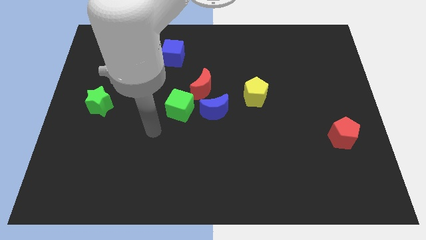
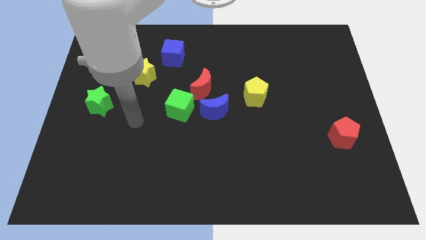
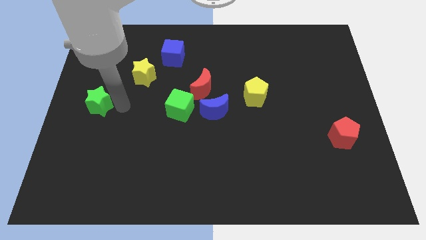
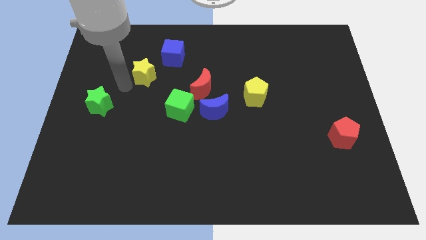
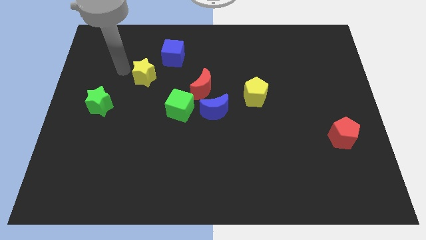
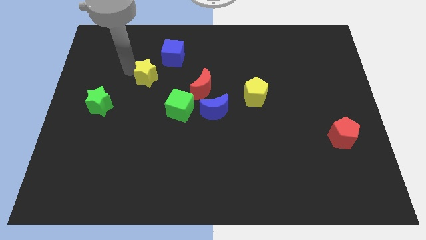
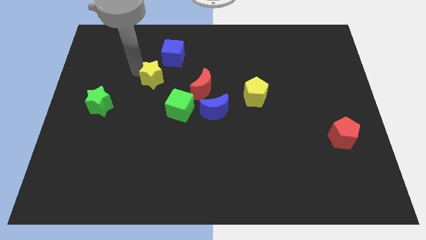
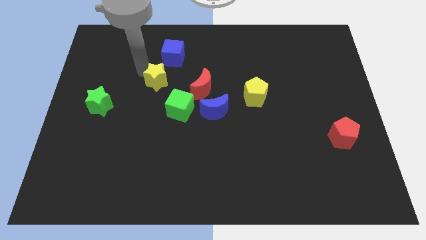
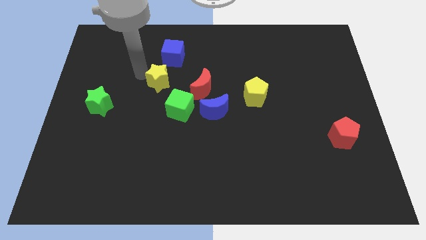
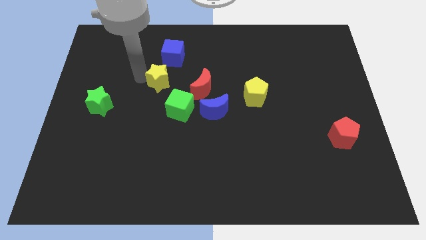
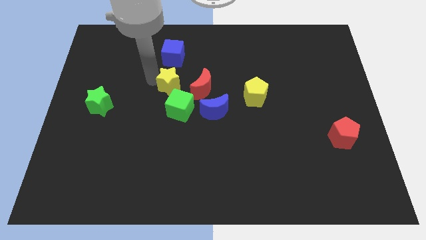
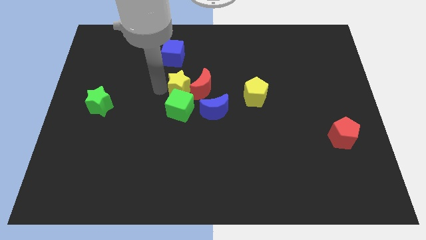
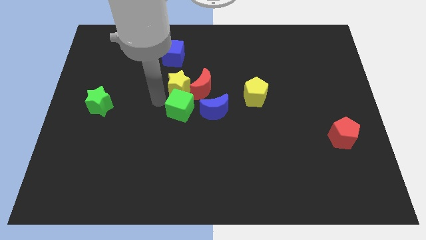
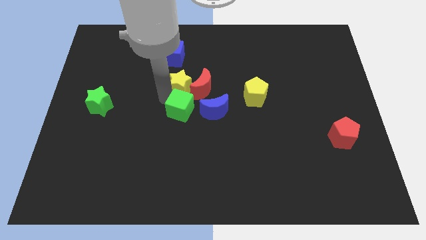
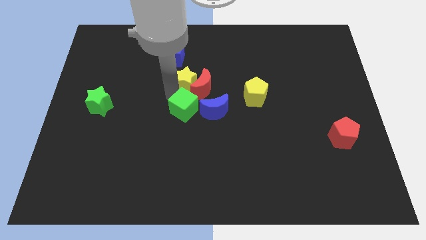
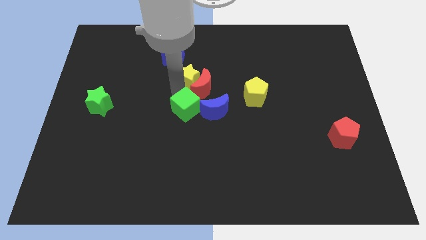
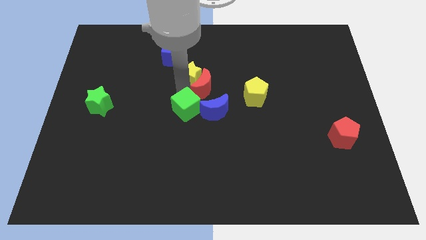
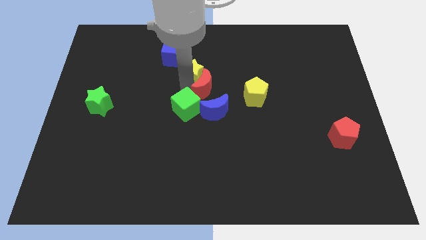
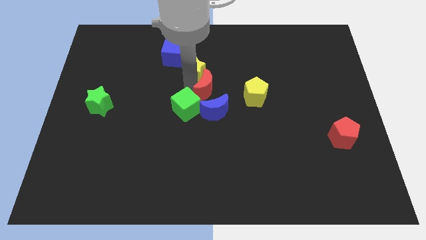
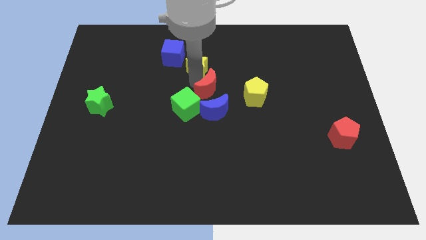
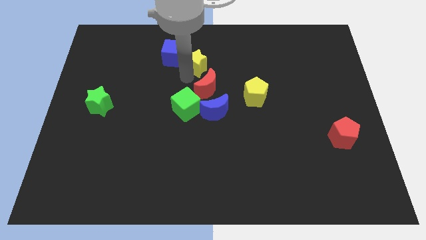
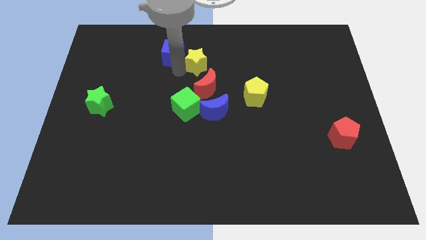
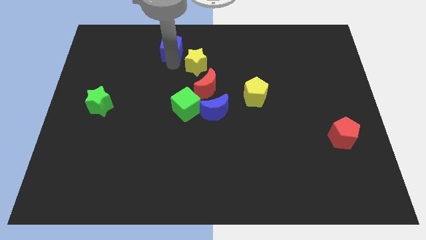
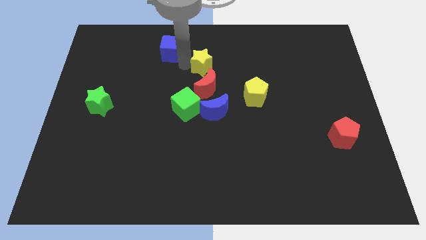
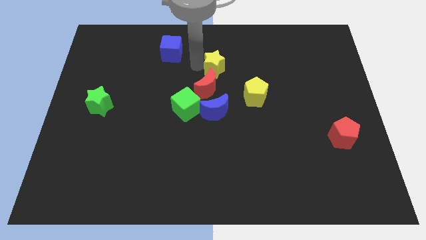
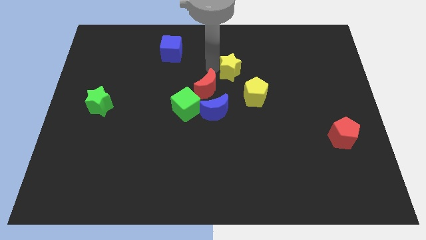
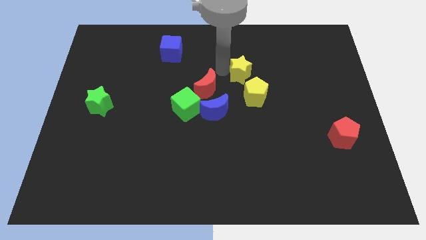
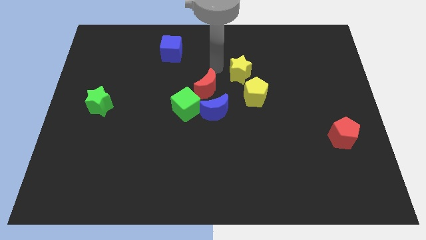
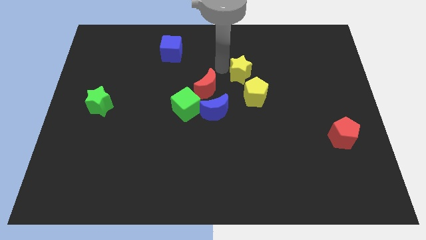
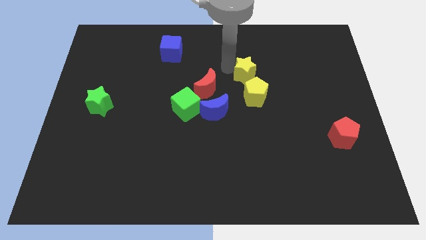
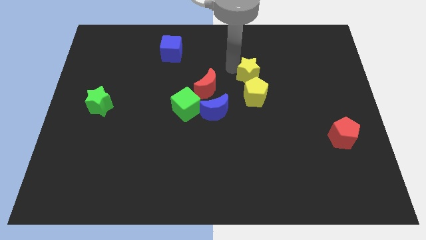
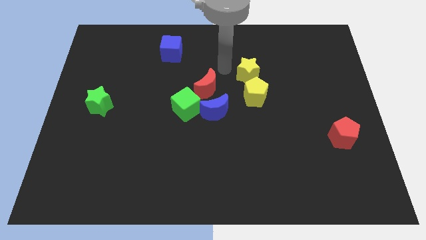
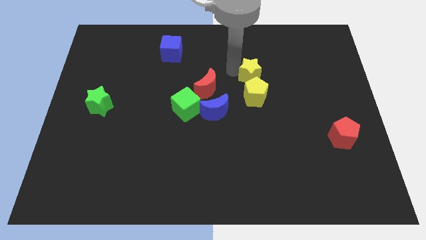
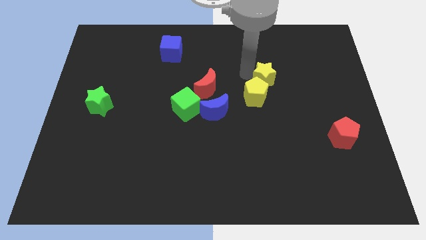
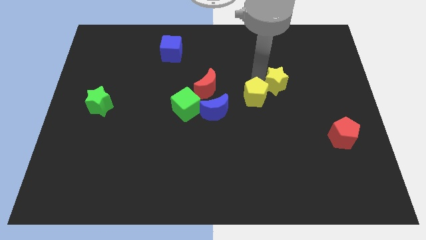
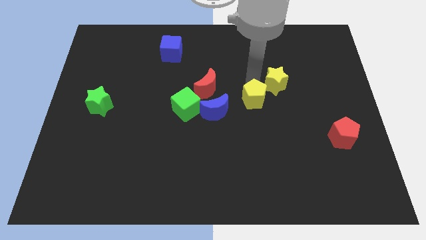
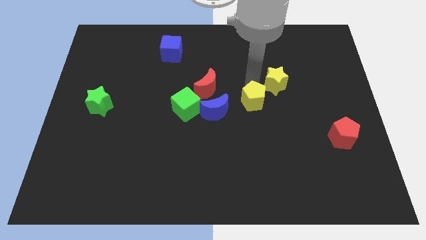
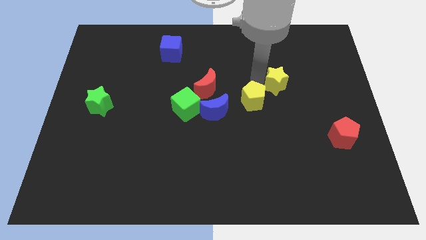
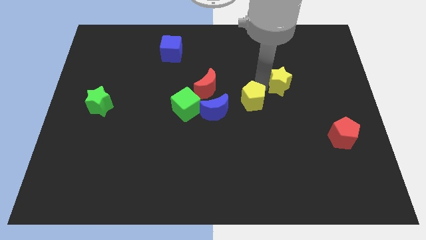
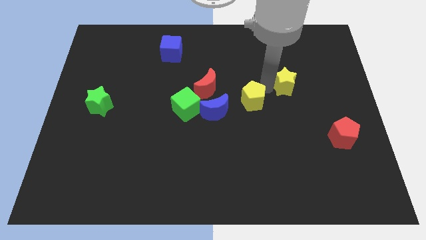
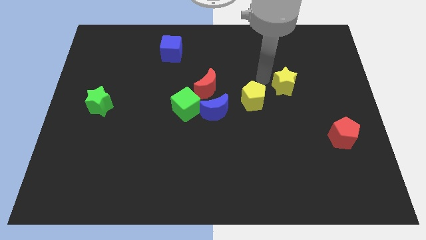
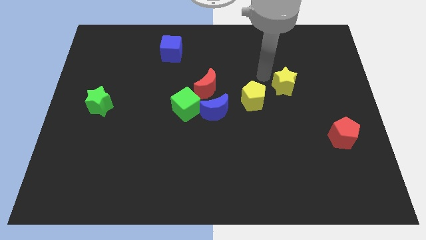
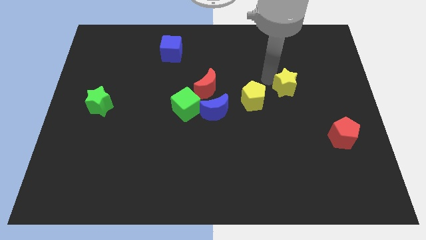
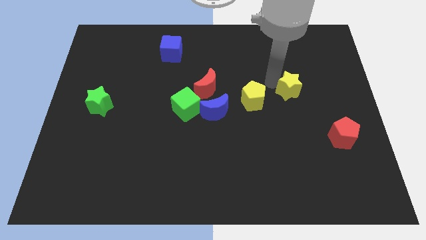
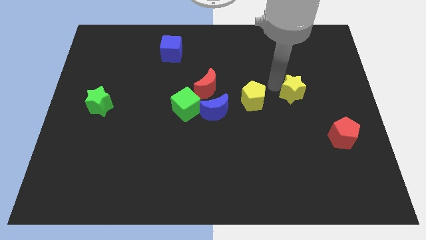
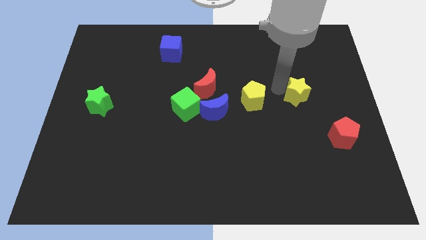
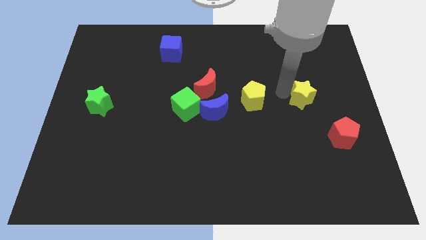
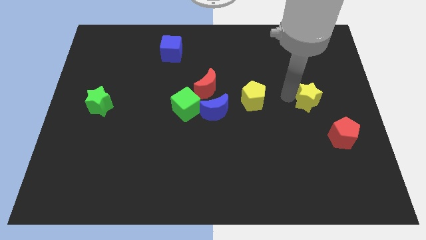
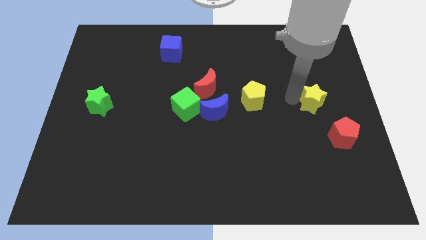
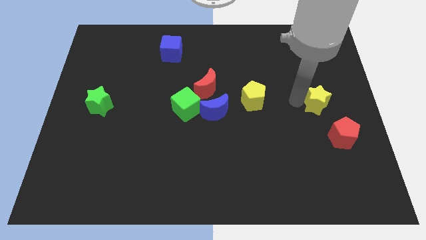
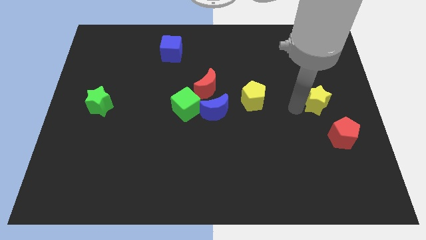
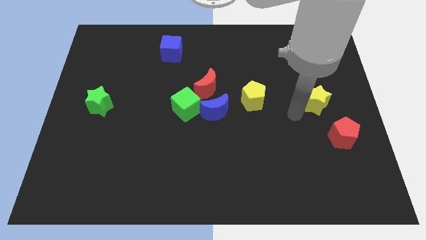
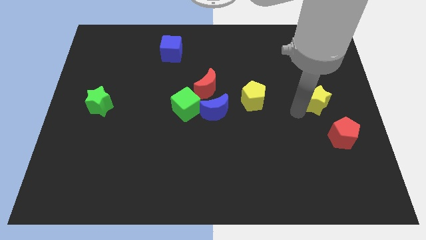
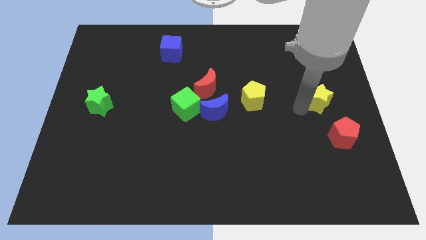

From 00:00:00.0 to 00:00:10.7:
push the yellow star to the center right
